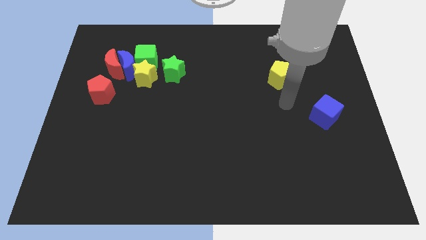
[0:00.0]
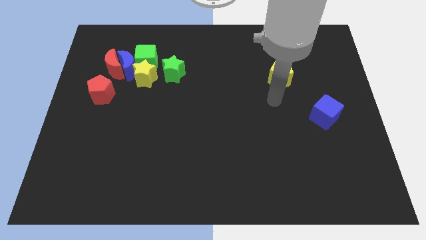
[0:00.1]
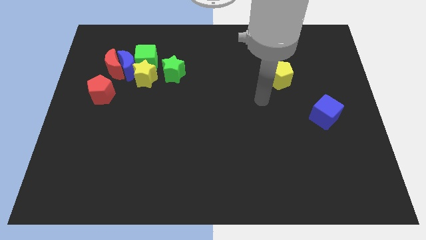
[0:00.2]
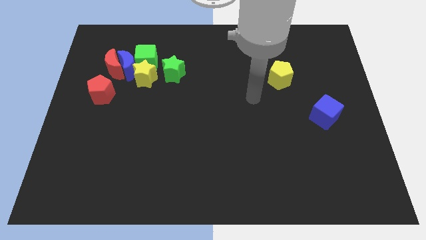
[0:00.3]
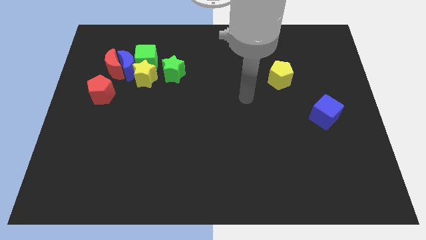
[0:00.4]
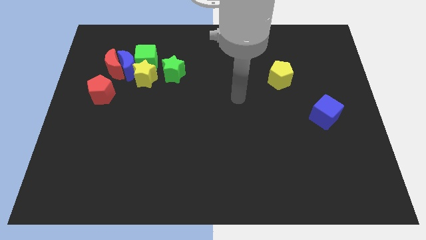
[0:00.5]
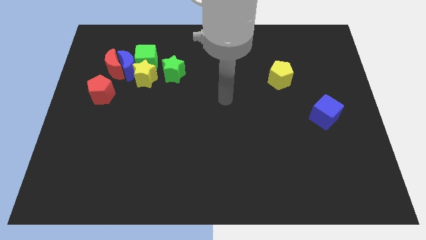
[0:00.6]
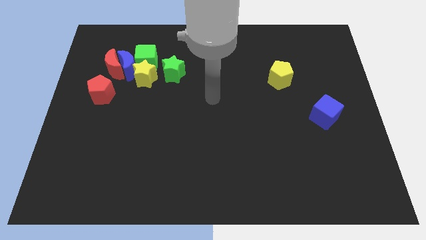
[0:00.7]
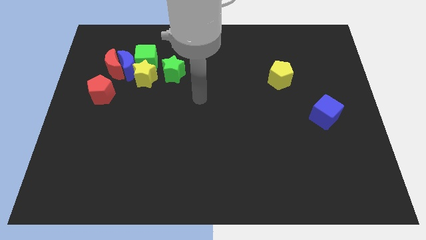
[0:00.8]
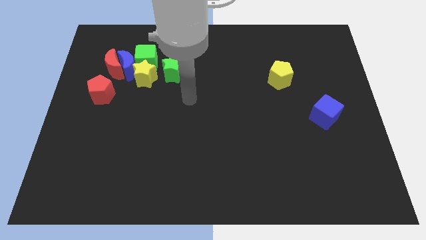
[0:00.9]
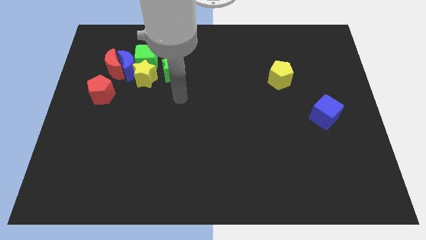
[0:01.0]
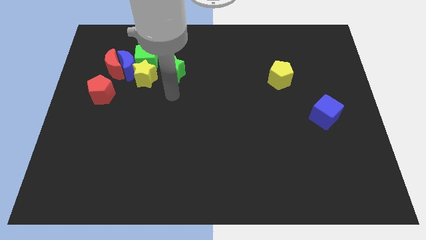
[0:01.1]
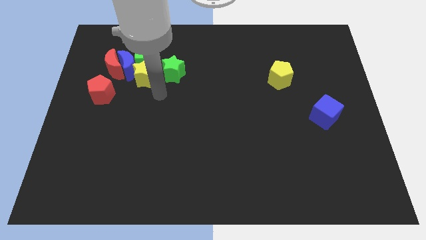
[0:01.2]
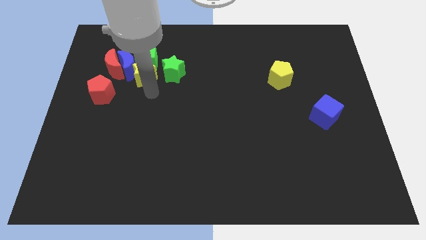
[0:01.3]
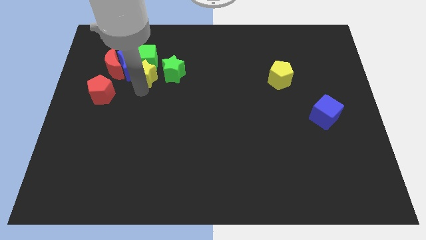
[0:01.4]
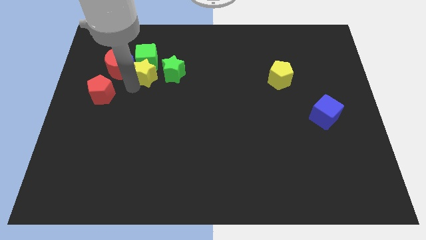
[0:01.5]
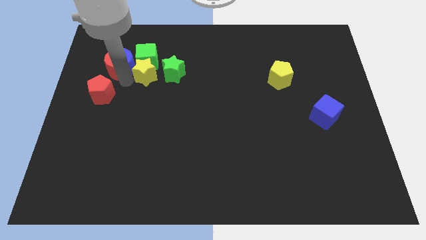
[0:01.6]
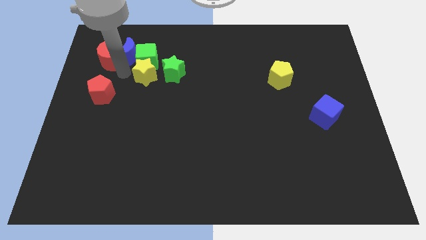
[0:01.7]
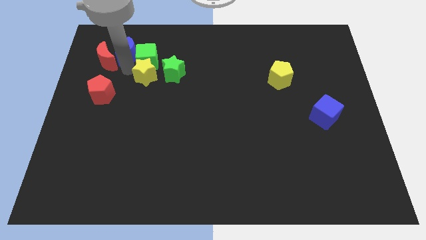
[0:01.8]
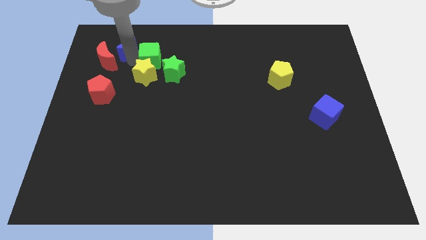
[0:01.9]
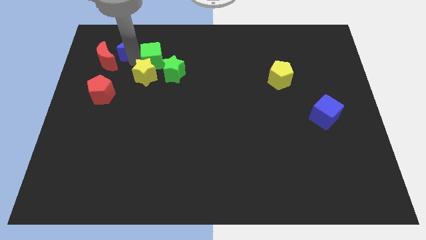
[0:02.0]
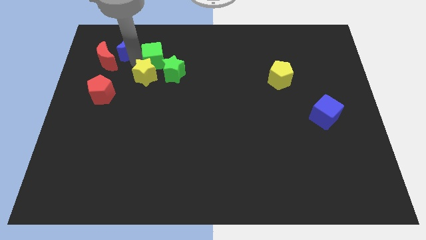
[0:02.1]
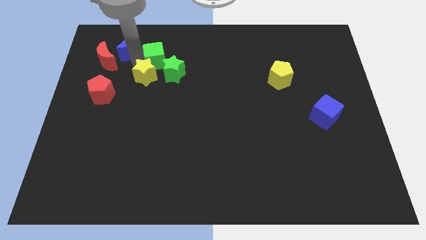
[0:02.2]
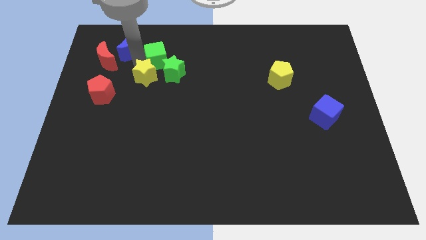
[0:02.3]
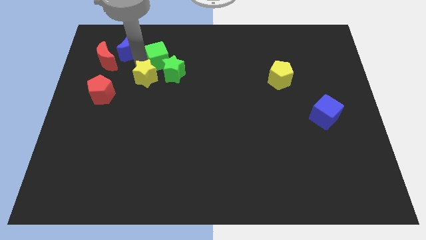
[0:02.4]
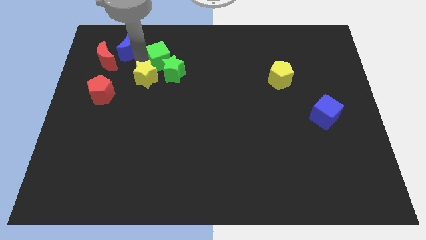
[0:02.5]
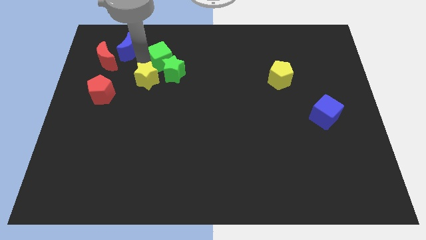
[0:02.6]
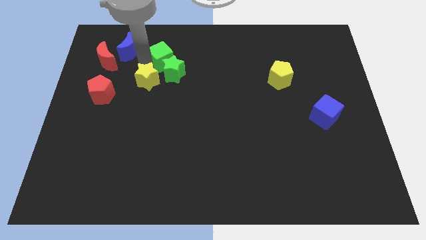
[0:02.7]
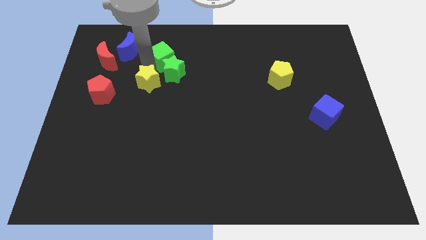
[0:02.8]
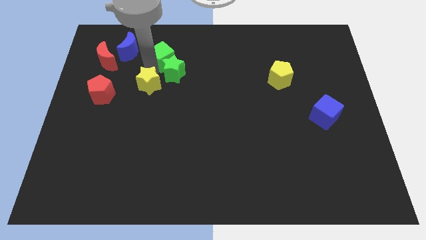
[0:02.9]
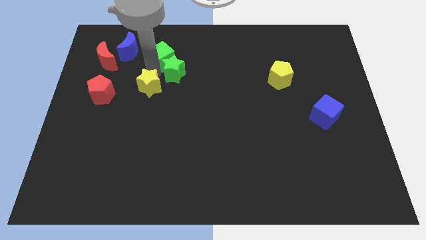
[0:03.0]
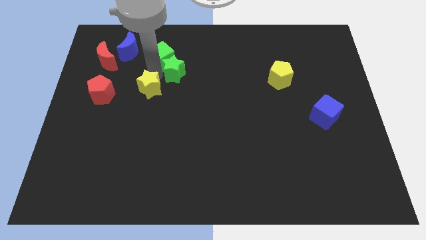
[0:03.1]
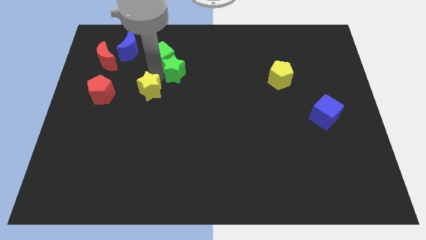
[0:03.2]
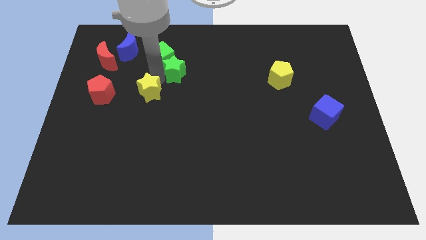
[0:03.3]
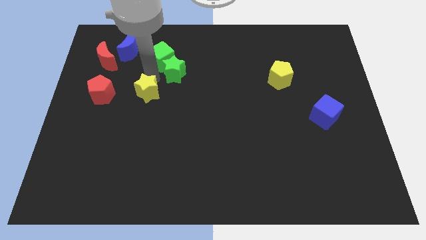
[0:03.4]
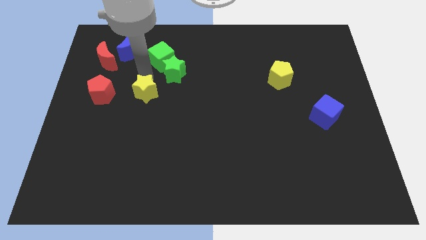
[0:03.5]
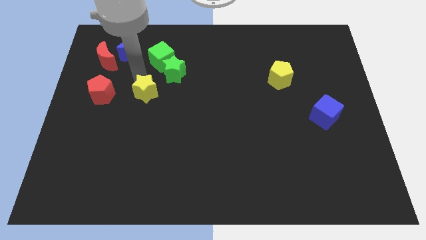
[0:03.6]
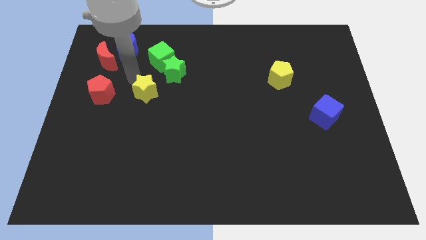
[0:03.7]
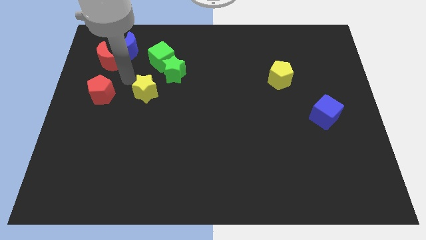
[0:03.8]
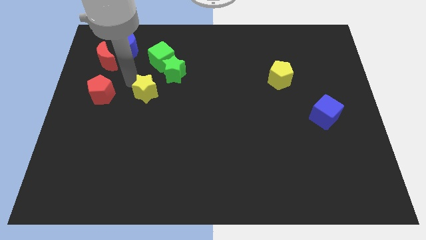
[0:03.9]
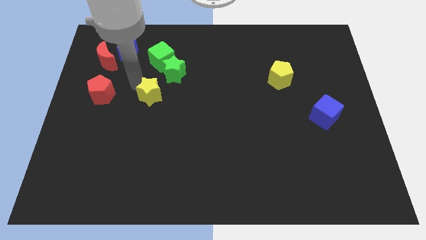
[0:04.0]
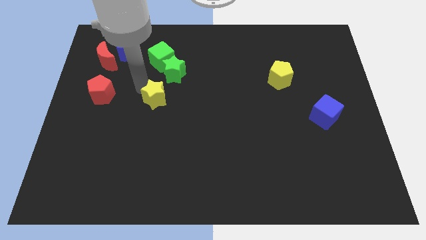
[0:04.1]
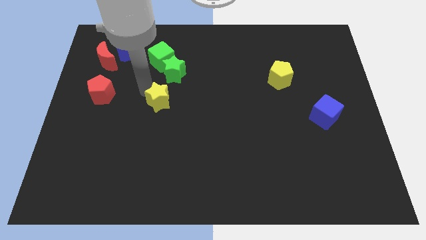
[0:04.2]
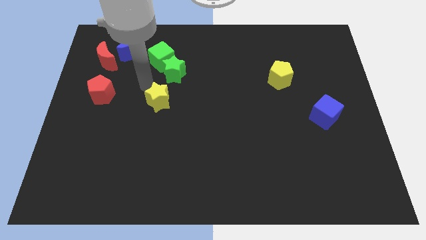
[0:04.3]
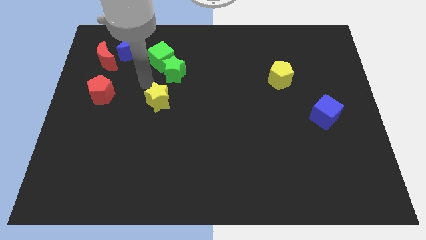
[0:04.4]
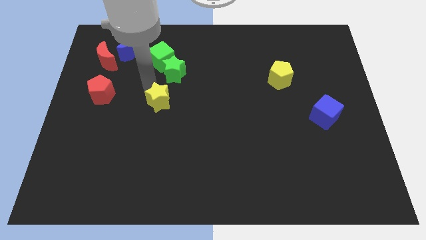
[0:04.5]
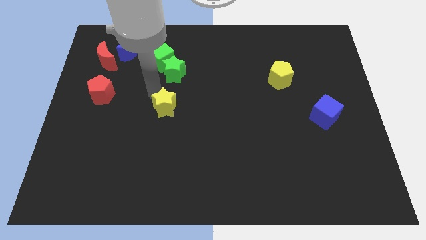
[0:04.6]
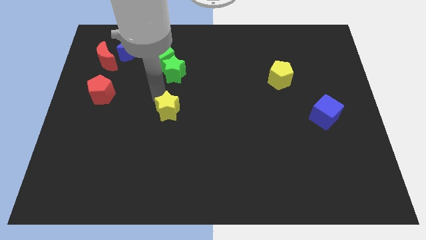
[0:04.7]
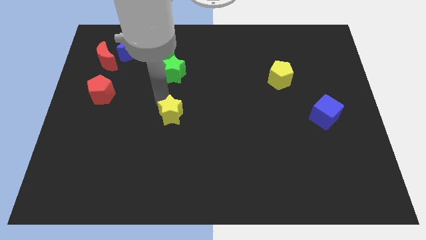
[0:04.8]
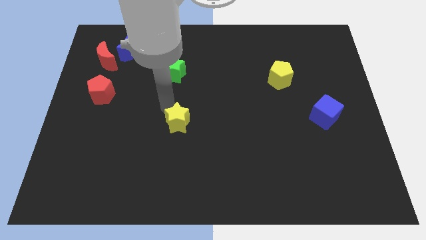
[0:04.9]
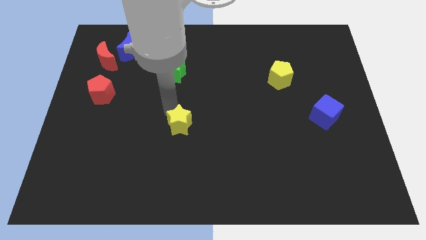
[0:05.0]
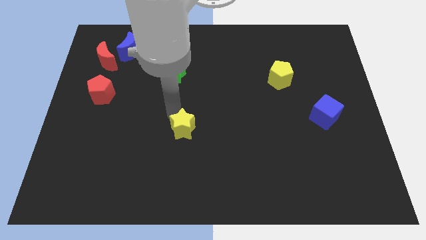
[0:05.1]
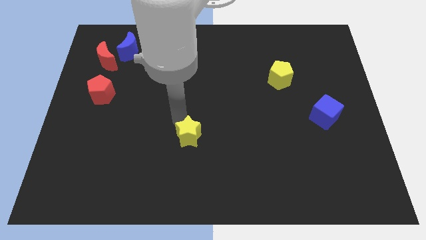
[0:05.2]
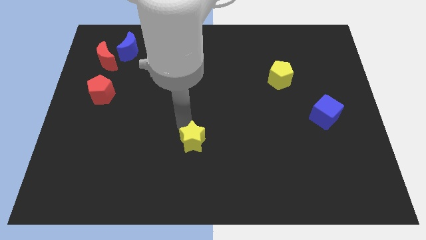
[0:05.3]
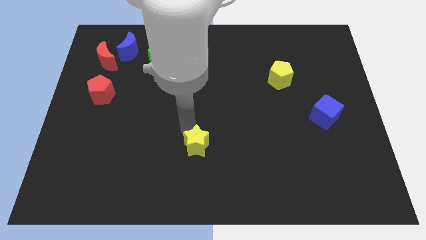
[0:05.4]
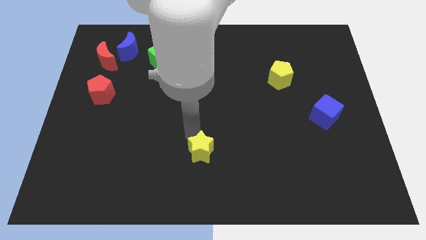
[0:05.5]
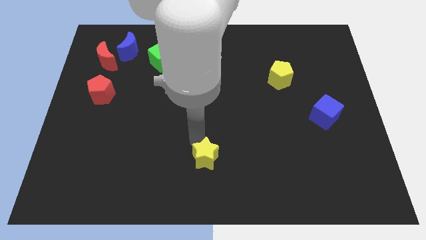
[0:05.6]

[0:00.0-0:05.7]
move the yellow star to the bottom side

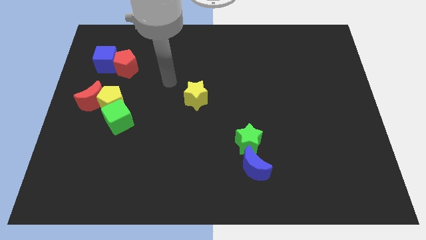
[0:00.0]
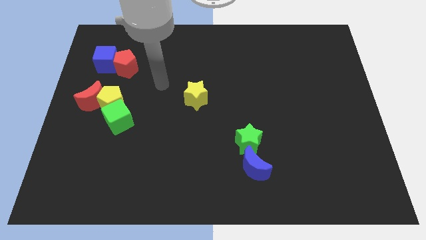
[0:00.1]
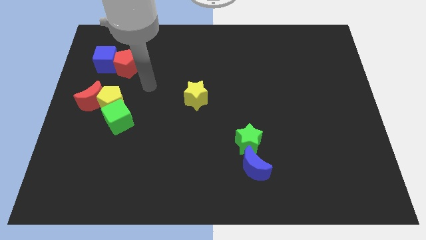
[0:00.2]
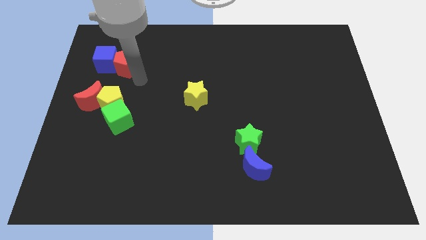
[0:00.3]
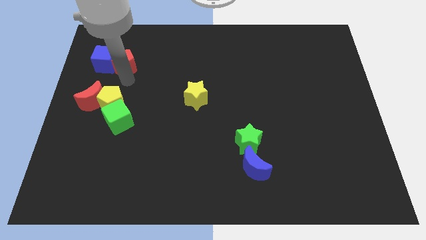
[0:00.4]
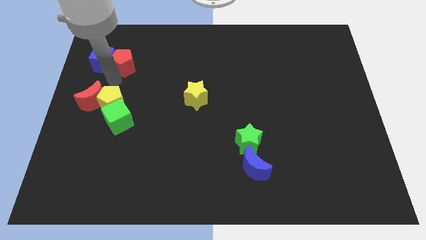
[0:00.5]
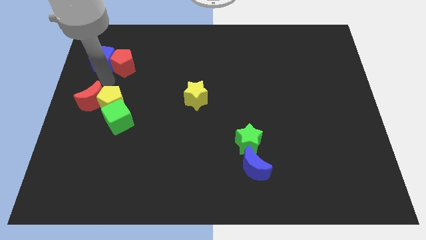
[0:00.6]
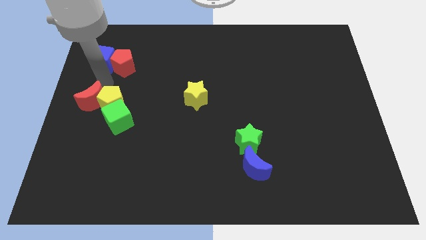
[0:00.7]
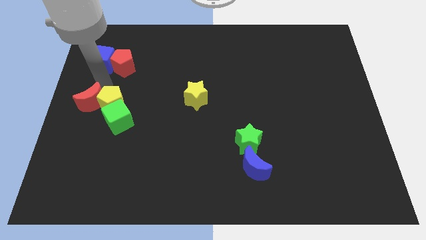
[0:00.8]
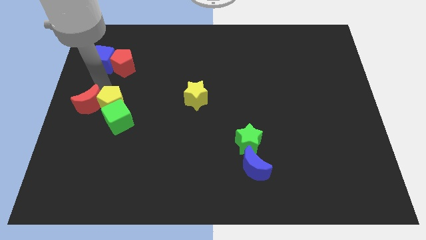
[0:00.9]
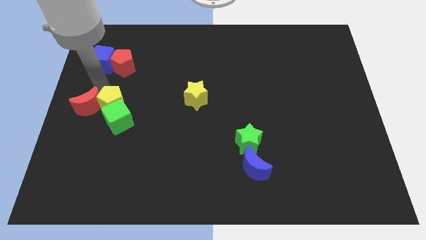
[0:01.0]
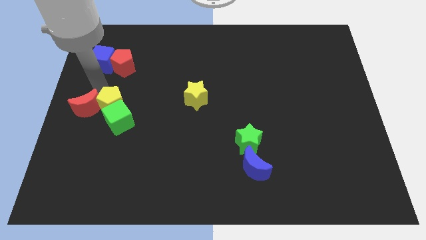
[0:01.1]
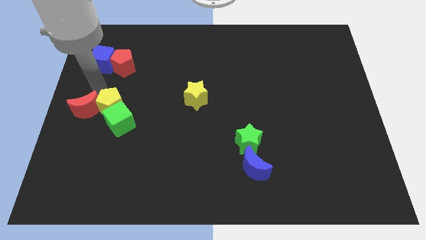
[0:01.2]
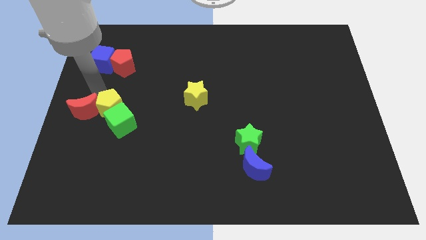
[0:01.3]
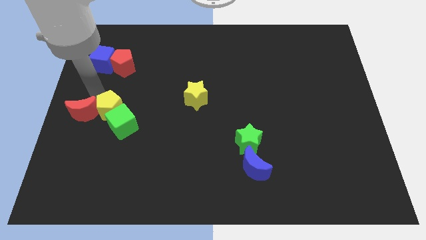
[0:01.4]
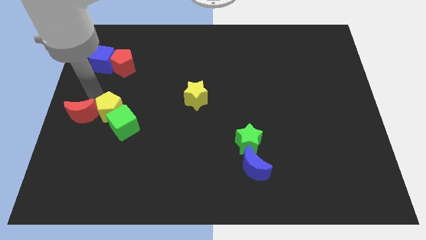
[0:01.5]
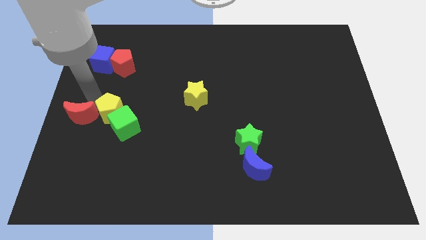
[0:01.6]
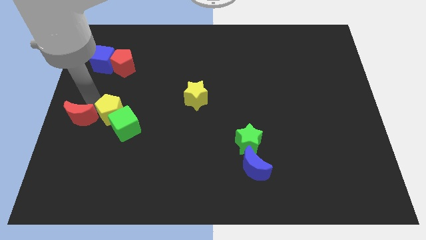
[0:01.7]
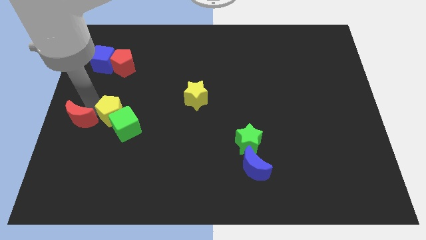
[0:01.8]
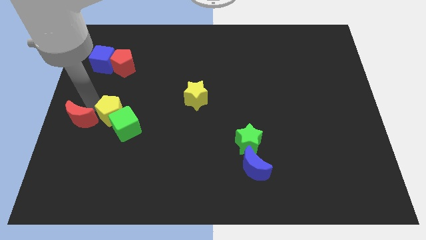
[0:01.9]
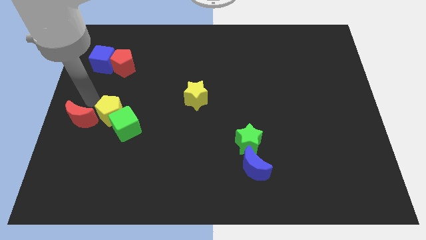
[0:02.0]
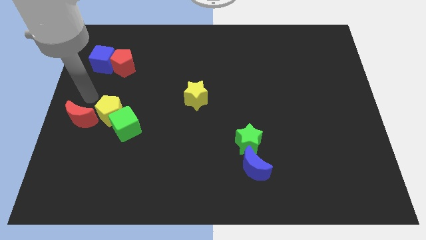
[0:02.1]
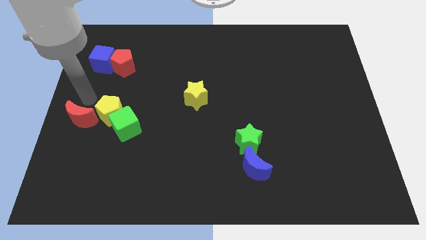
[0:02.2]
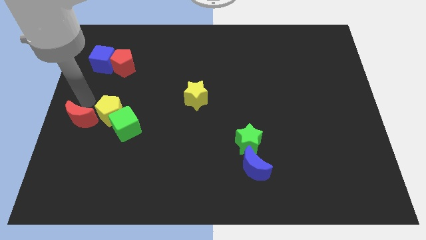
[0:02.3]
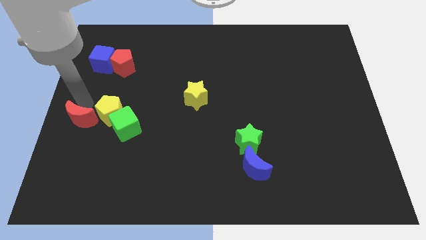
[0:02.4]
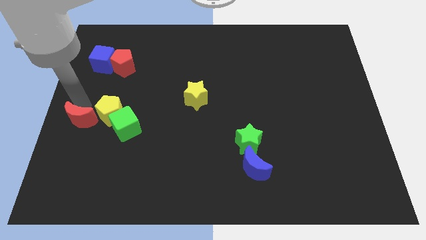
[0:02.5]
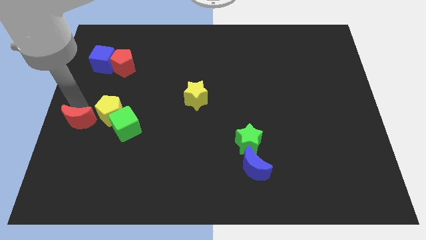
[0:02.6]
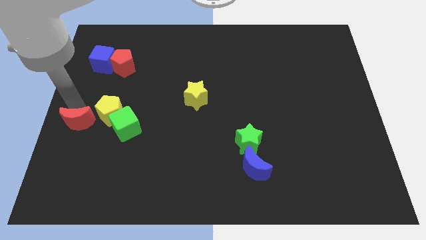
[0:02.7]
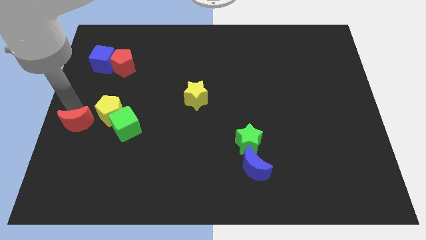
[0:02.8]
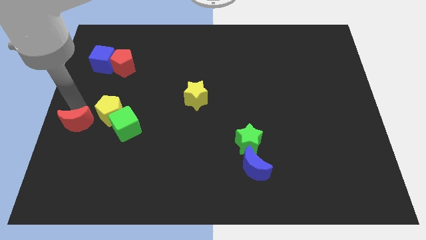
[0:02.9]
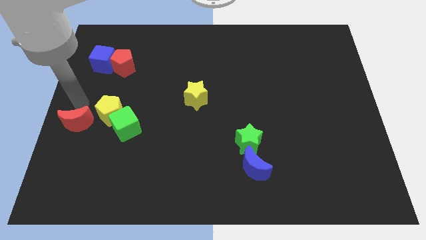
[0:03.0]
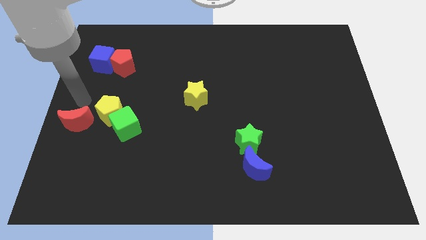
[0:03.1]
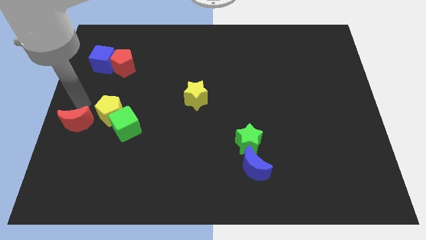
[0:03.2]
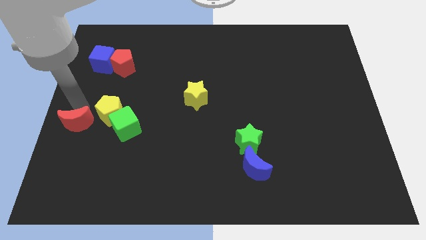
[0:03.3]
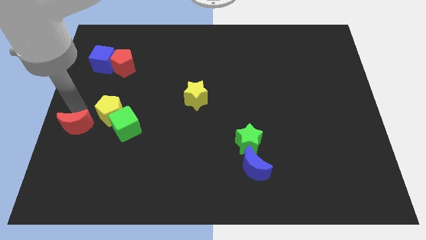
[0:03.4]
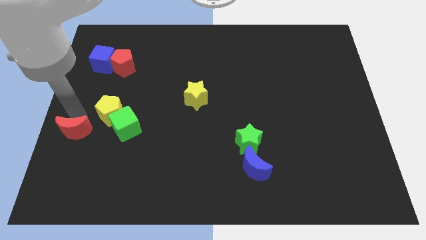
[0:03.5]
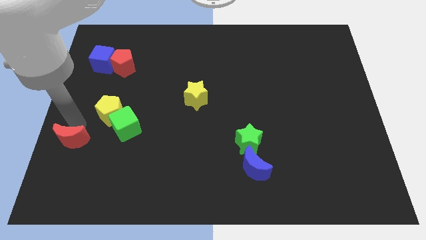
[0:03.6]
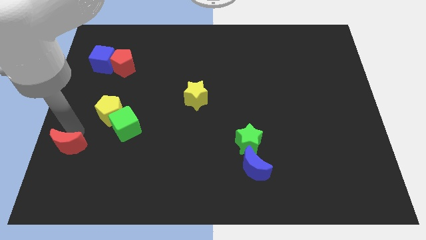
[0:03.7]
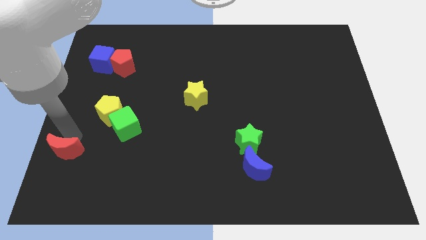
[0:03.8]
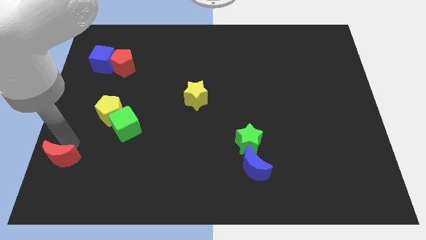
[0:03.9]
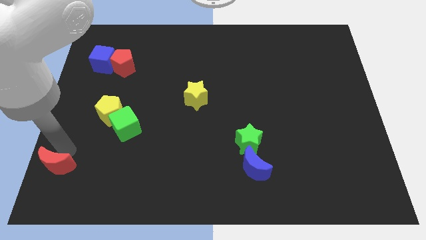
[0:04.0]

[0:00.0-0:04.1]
slide the red moon to the bottom left of the board
